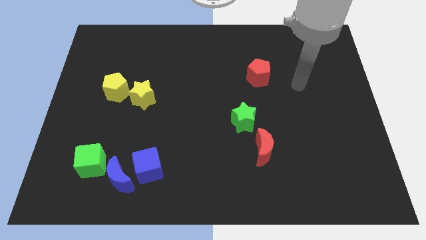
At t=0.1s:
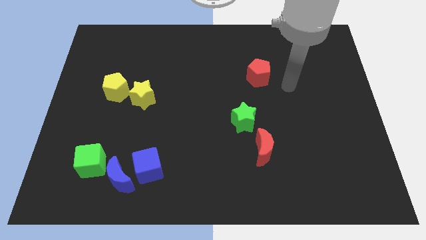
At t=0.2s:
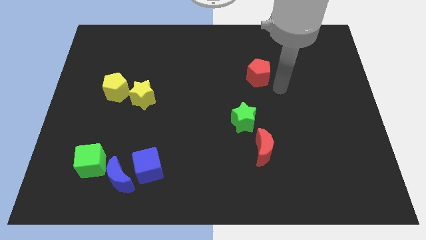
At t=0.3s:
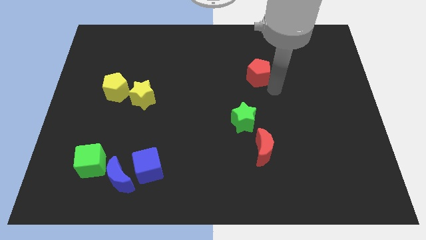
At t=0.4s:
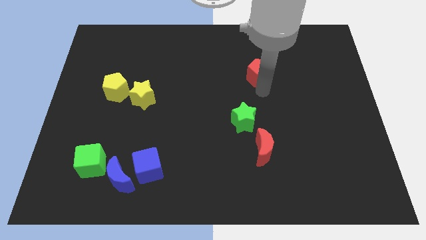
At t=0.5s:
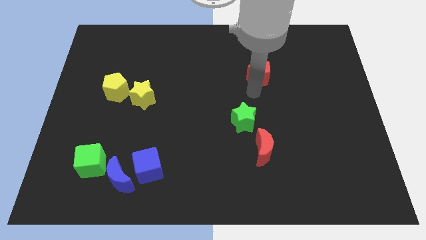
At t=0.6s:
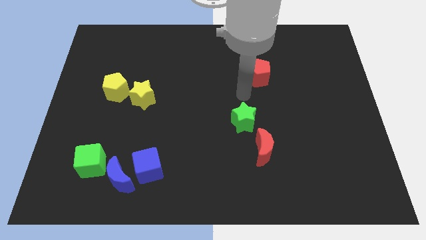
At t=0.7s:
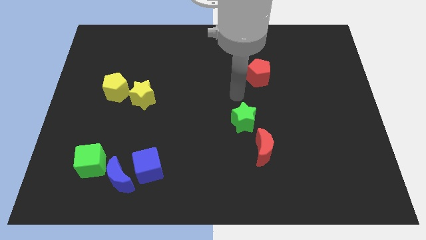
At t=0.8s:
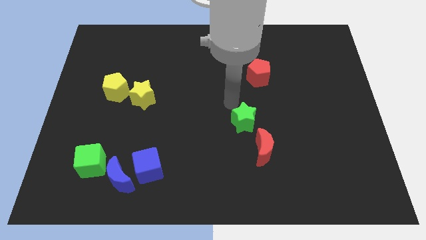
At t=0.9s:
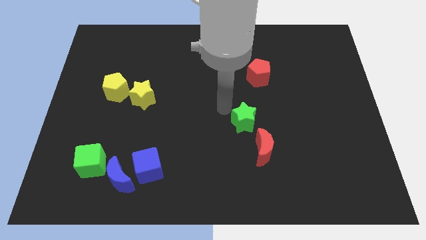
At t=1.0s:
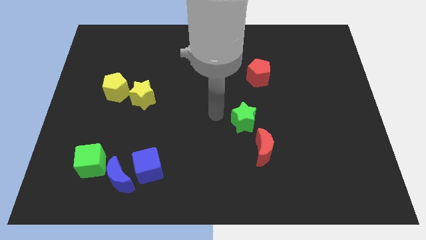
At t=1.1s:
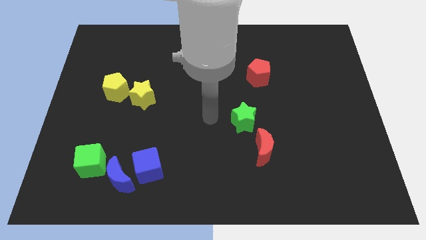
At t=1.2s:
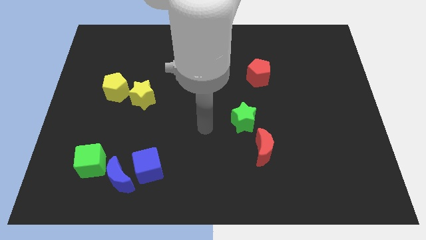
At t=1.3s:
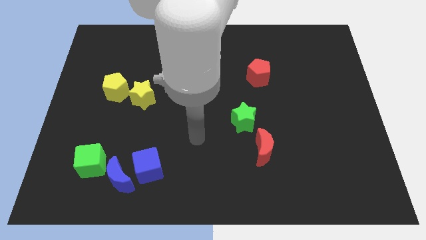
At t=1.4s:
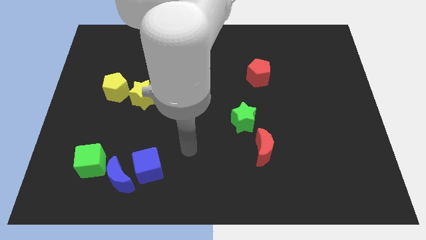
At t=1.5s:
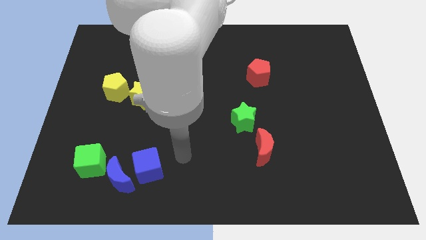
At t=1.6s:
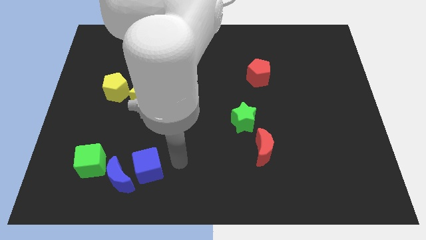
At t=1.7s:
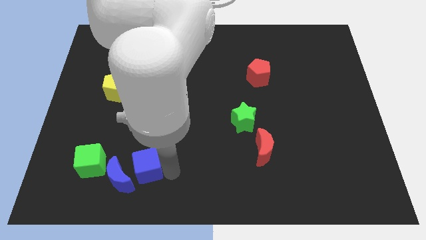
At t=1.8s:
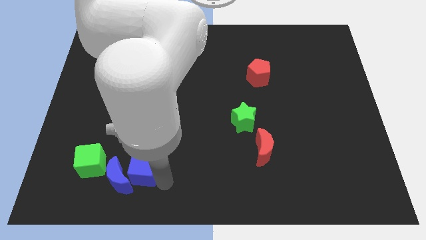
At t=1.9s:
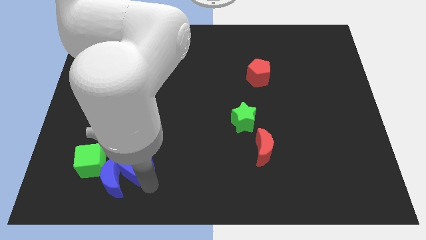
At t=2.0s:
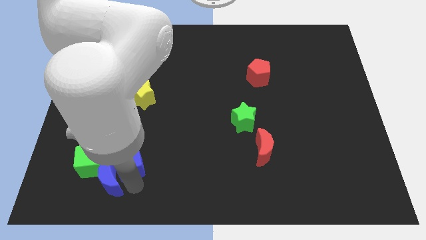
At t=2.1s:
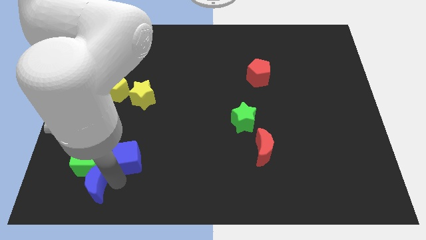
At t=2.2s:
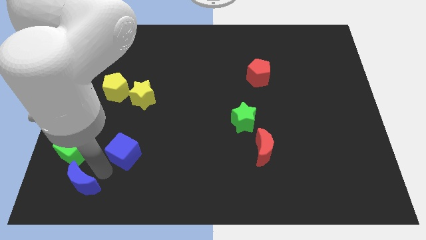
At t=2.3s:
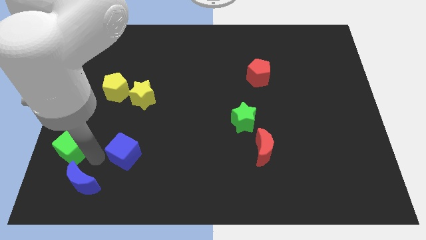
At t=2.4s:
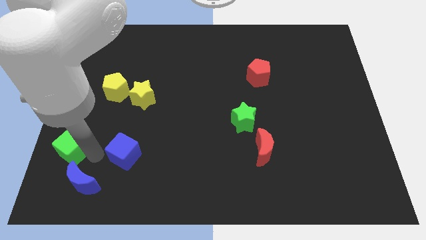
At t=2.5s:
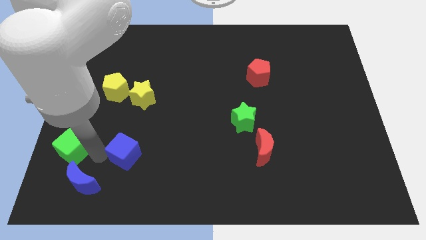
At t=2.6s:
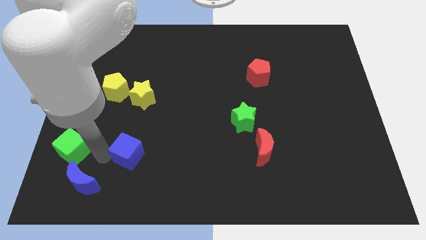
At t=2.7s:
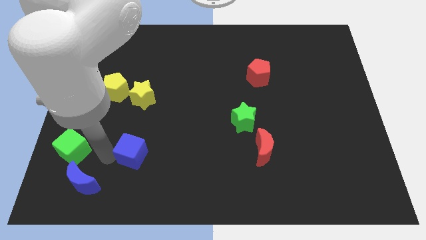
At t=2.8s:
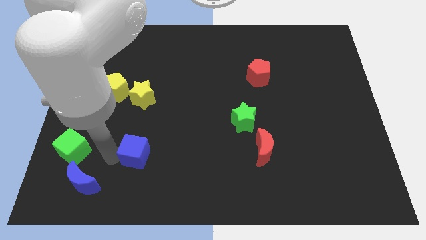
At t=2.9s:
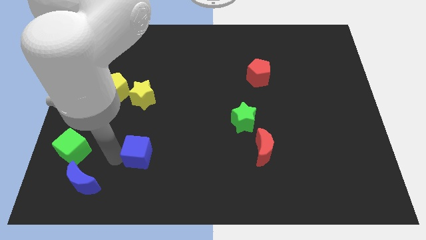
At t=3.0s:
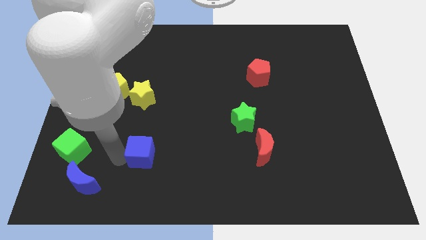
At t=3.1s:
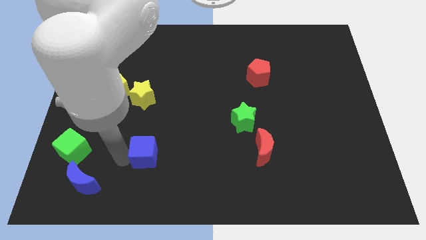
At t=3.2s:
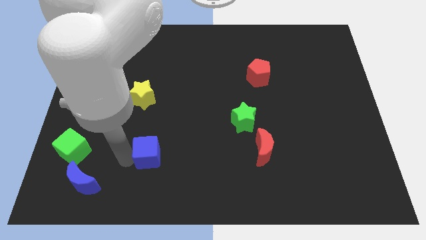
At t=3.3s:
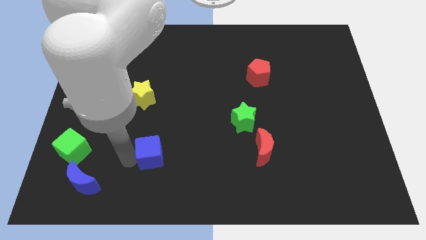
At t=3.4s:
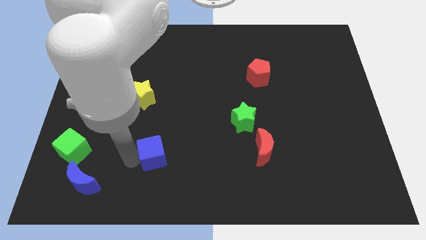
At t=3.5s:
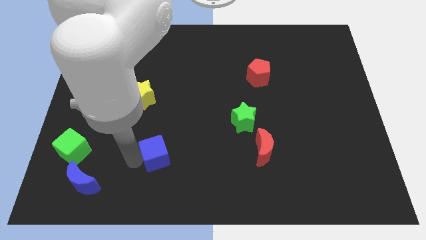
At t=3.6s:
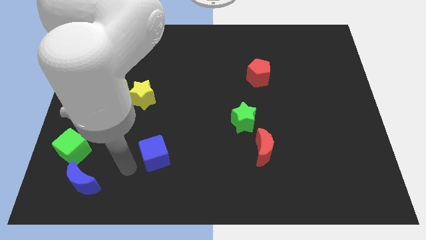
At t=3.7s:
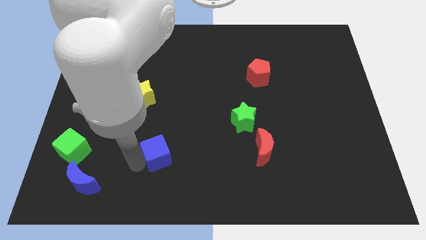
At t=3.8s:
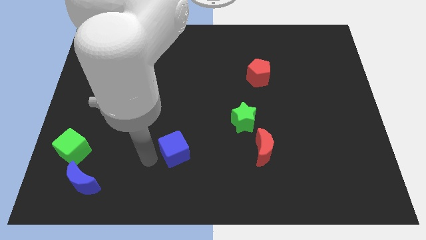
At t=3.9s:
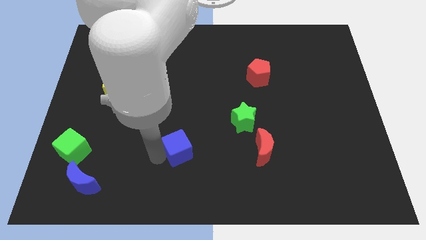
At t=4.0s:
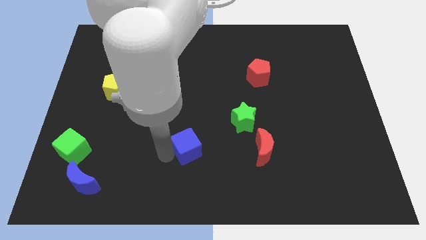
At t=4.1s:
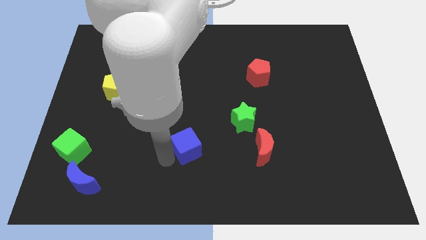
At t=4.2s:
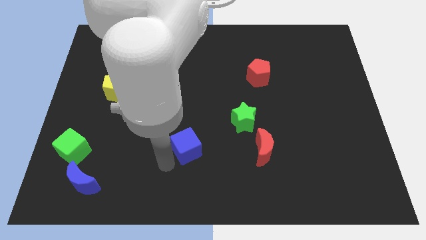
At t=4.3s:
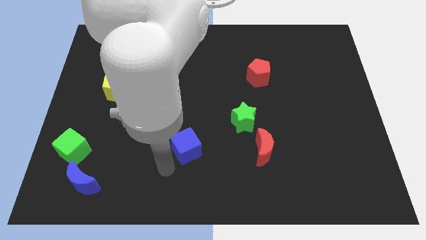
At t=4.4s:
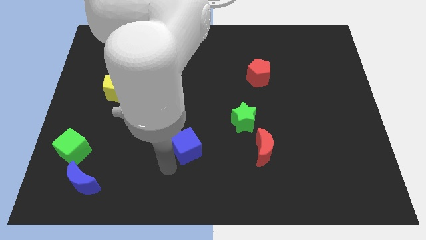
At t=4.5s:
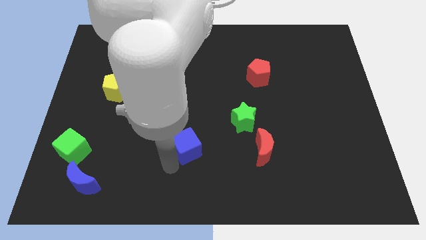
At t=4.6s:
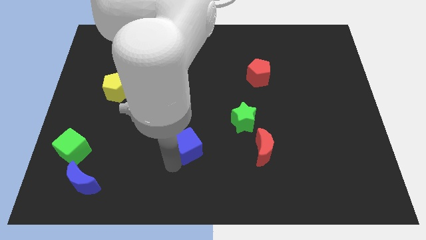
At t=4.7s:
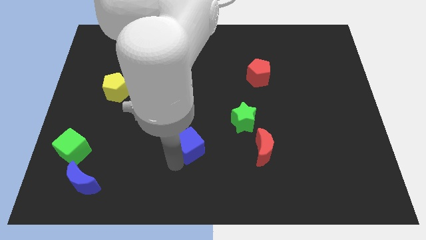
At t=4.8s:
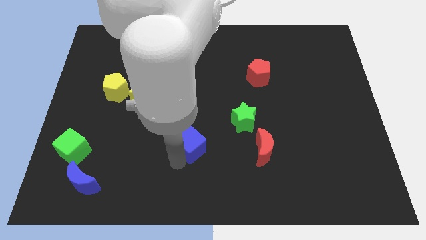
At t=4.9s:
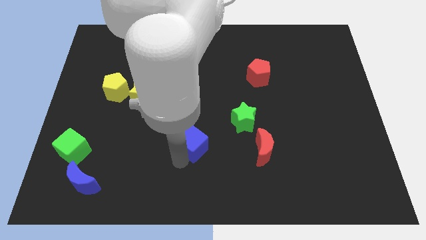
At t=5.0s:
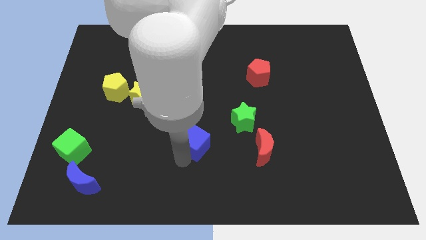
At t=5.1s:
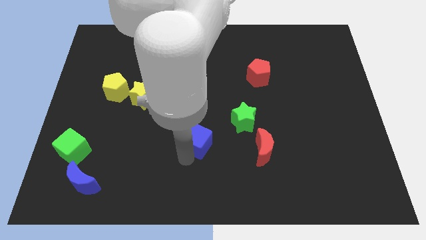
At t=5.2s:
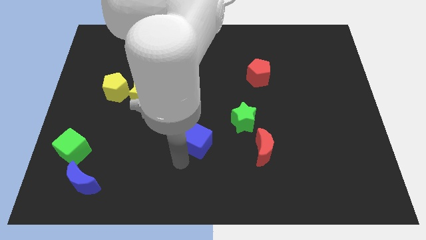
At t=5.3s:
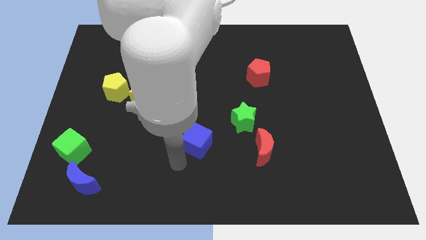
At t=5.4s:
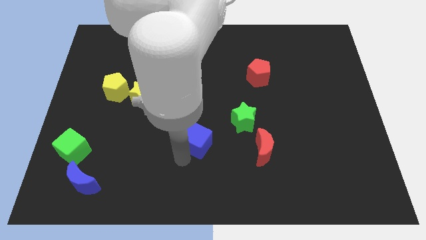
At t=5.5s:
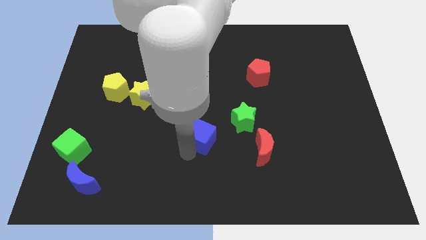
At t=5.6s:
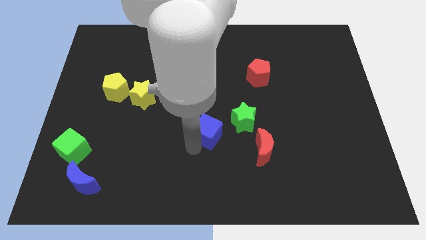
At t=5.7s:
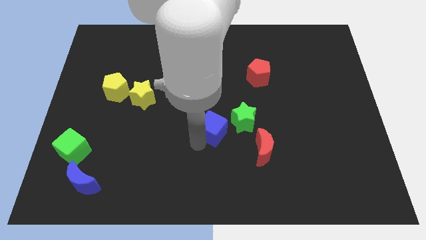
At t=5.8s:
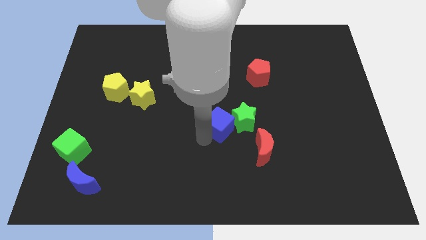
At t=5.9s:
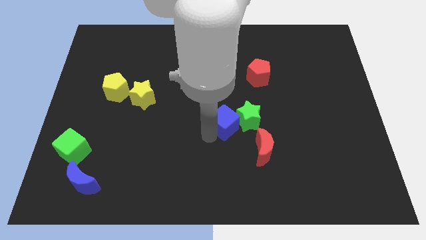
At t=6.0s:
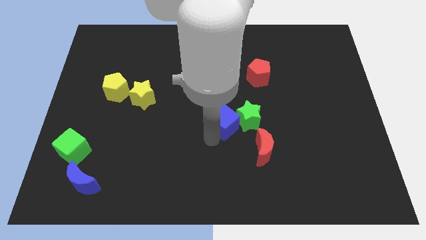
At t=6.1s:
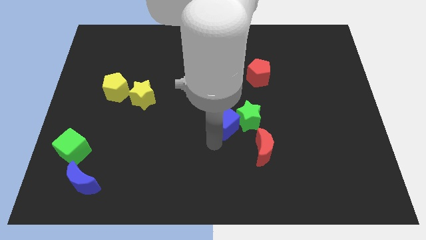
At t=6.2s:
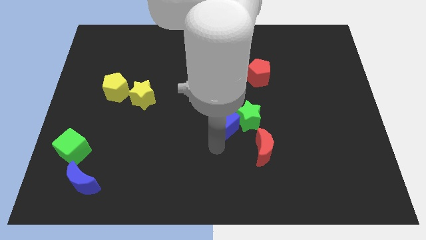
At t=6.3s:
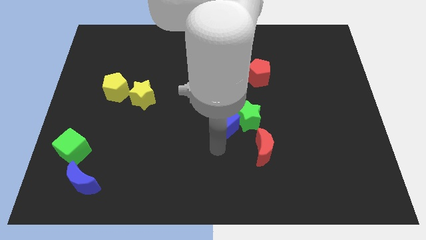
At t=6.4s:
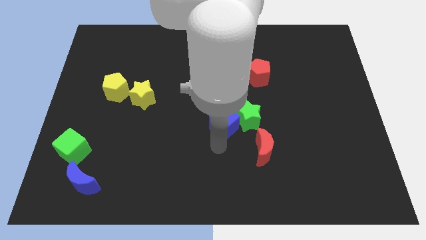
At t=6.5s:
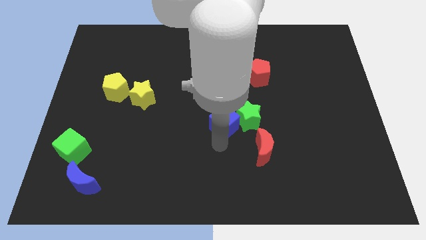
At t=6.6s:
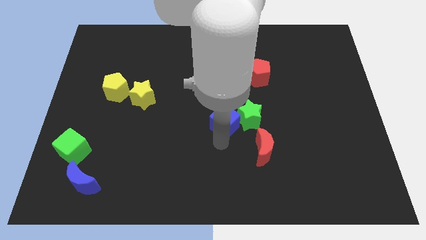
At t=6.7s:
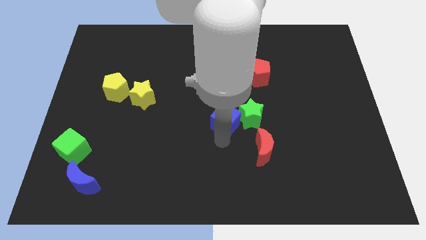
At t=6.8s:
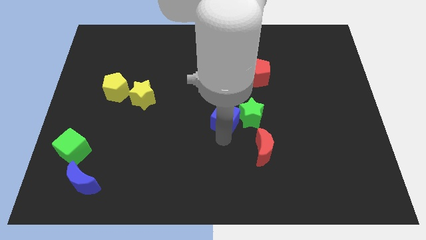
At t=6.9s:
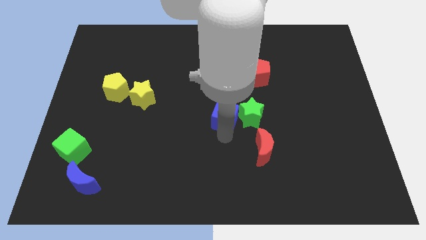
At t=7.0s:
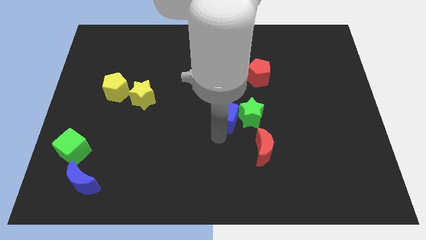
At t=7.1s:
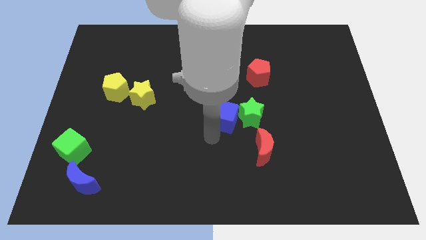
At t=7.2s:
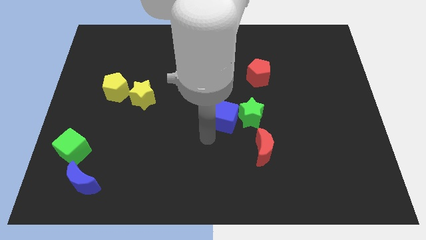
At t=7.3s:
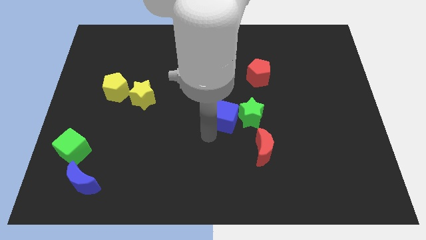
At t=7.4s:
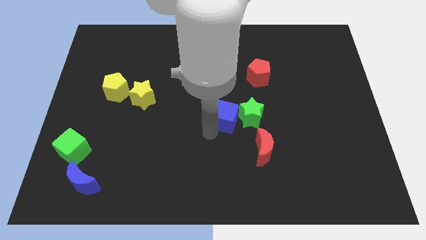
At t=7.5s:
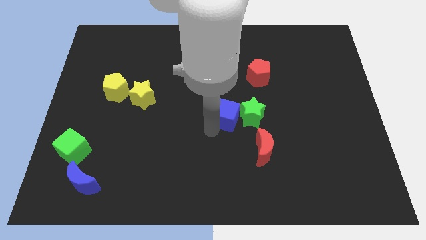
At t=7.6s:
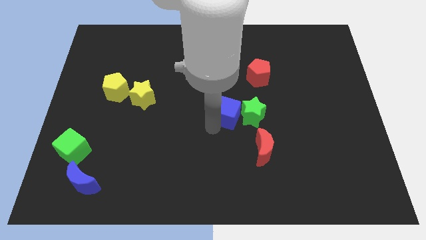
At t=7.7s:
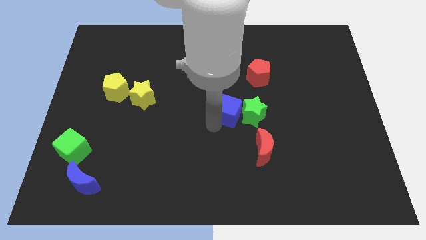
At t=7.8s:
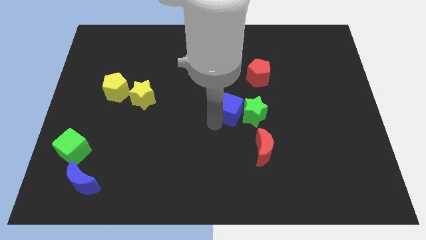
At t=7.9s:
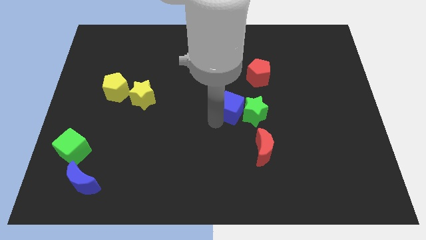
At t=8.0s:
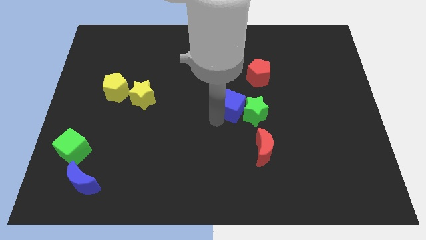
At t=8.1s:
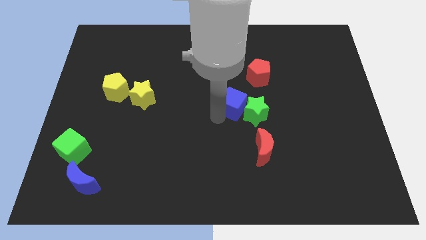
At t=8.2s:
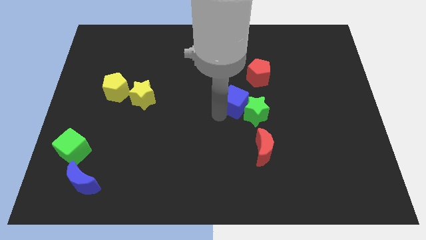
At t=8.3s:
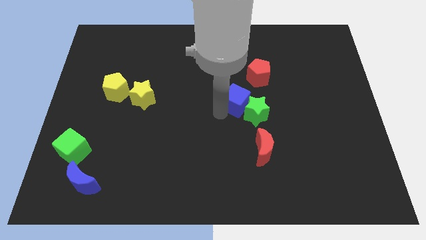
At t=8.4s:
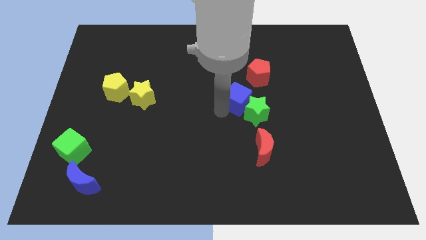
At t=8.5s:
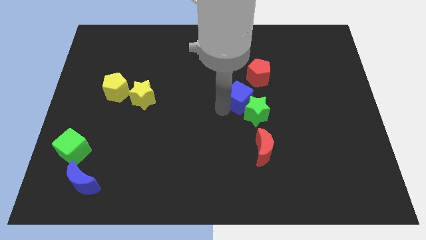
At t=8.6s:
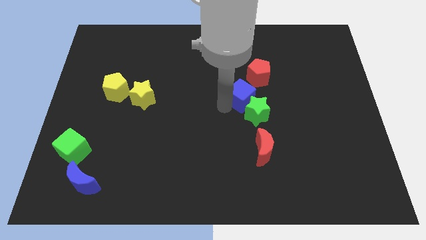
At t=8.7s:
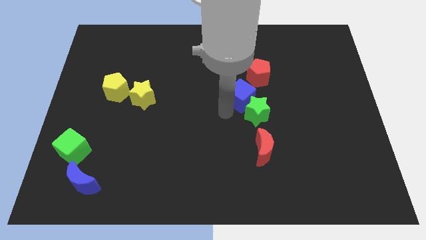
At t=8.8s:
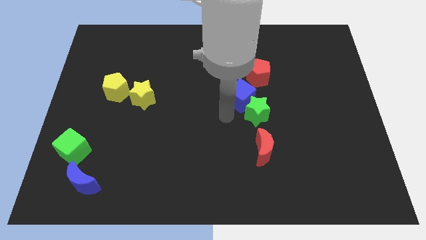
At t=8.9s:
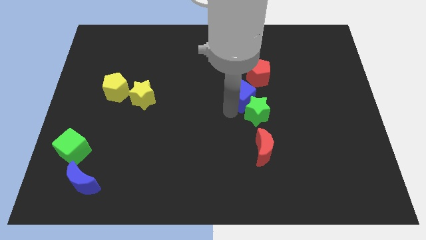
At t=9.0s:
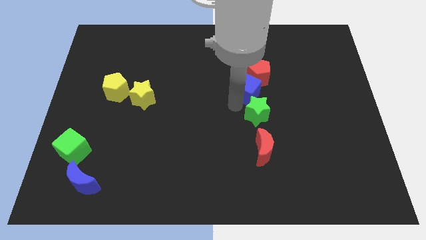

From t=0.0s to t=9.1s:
move the blue cube next to the red pentagon
